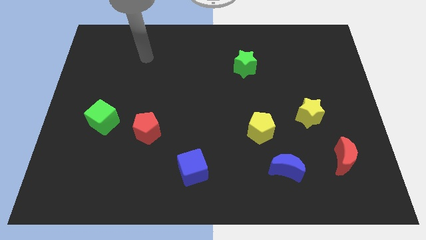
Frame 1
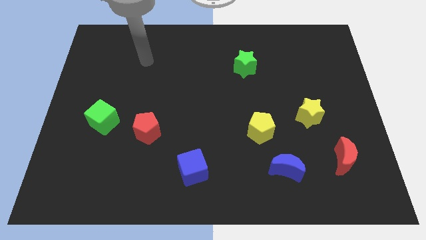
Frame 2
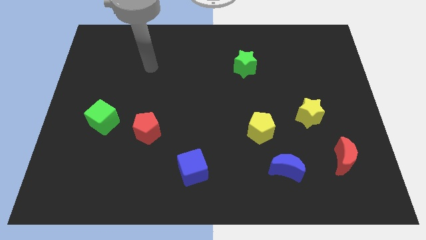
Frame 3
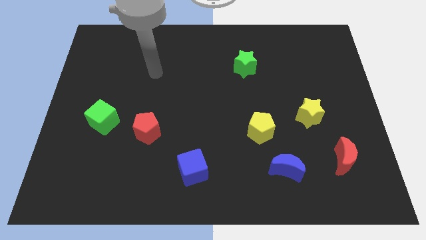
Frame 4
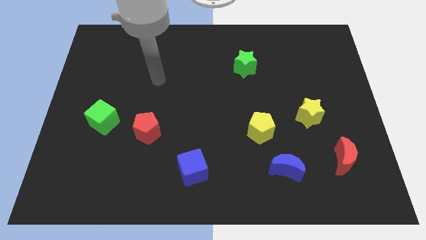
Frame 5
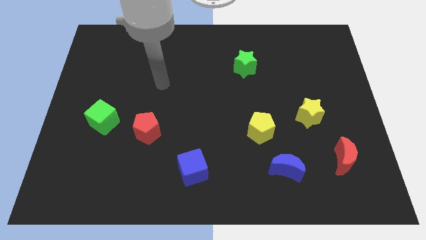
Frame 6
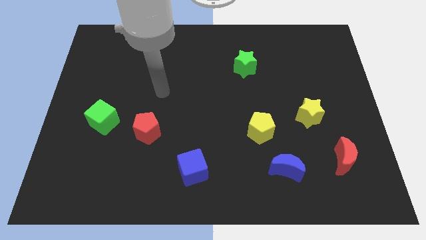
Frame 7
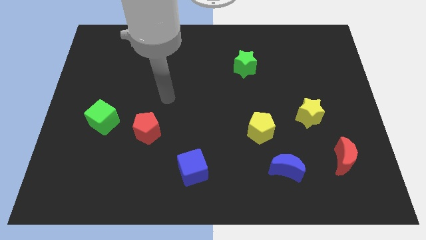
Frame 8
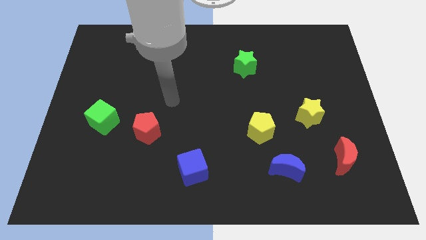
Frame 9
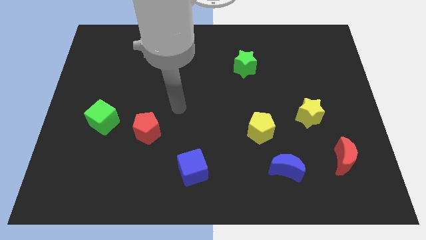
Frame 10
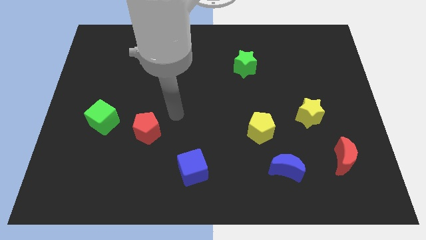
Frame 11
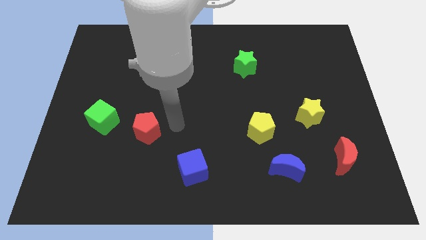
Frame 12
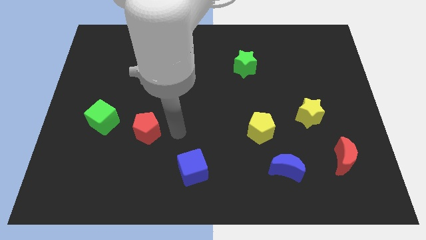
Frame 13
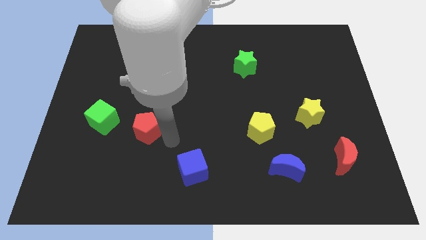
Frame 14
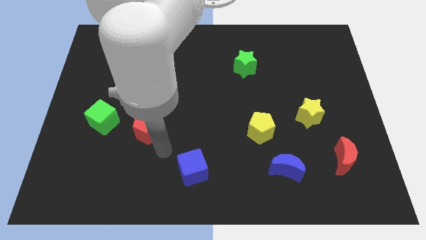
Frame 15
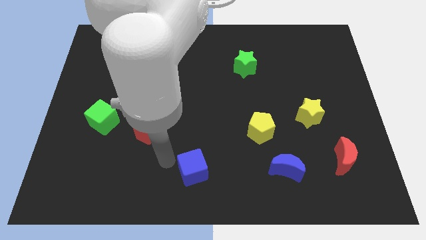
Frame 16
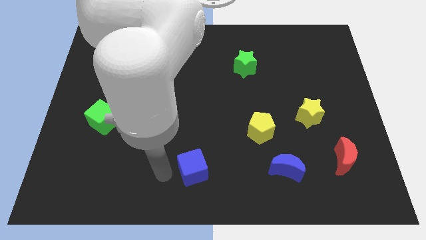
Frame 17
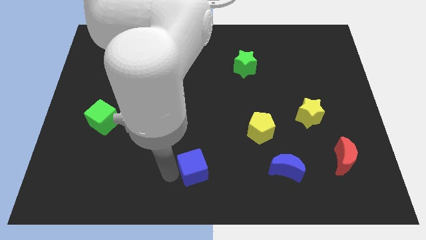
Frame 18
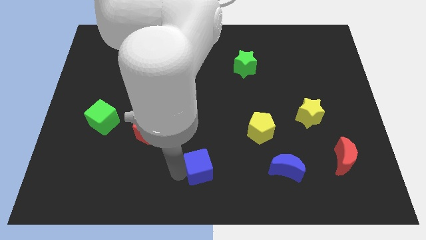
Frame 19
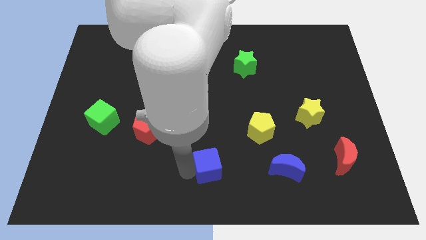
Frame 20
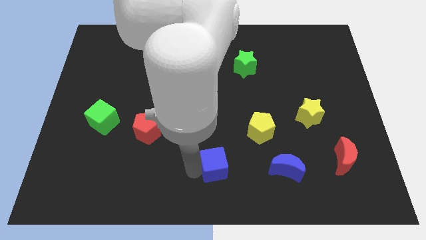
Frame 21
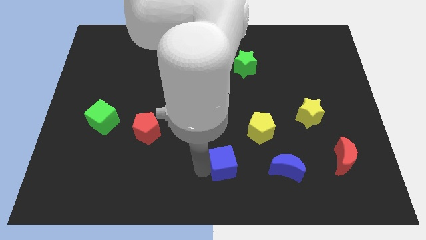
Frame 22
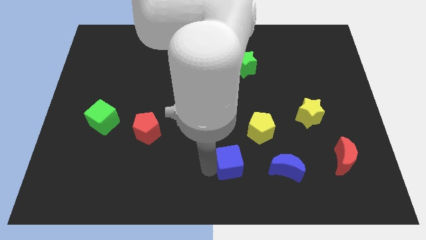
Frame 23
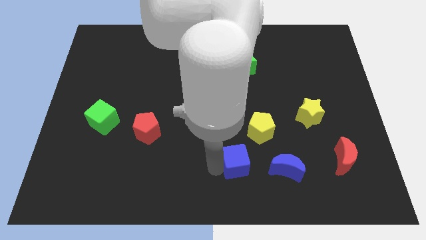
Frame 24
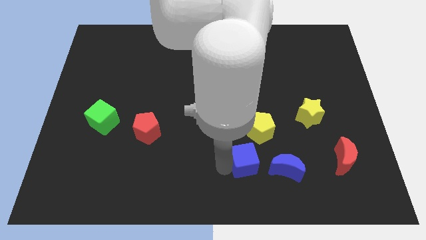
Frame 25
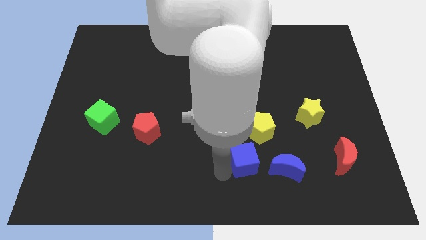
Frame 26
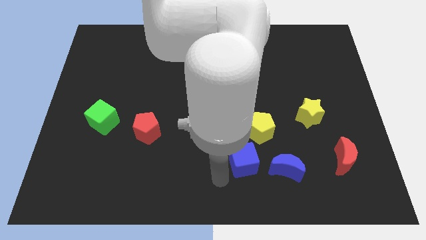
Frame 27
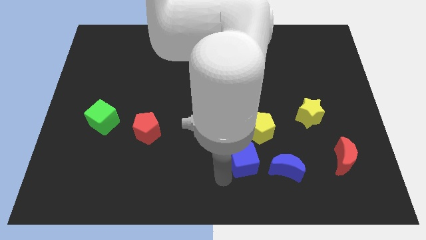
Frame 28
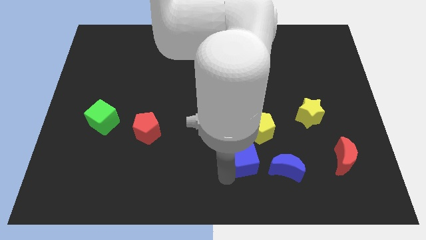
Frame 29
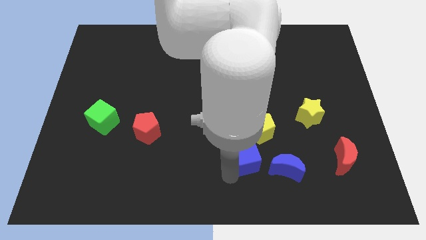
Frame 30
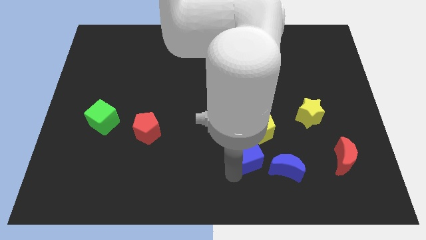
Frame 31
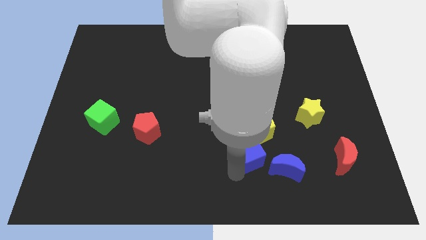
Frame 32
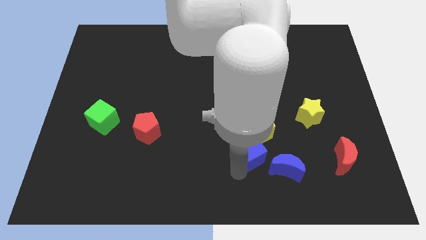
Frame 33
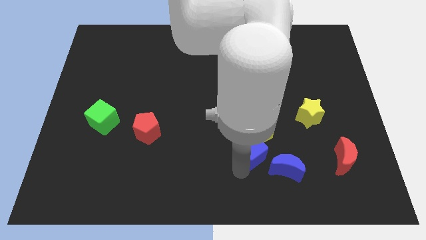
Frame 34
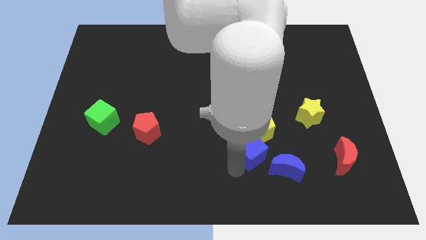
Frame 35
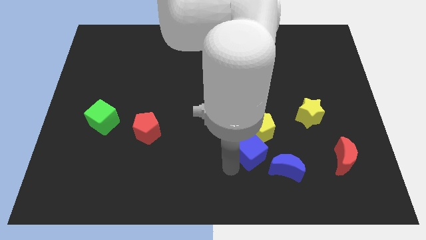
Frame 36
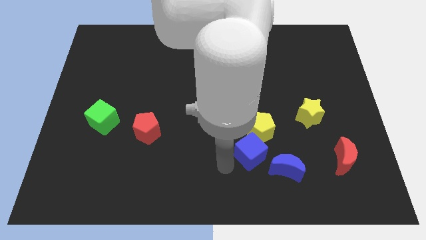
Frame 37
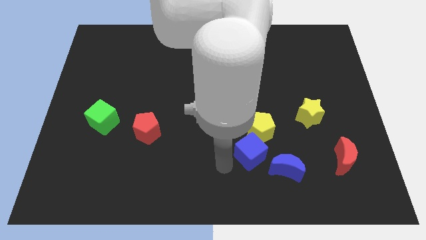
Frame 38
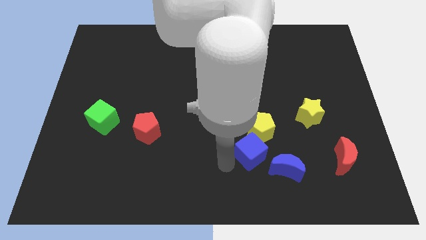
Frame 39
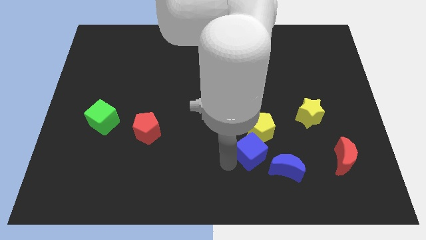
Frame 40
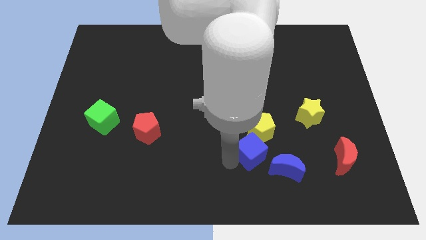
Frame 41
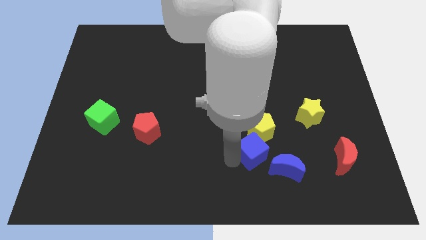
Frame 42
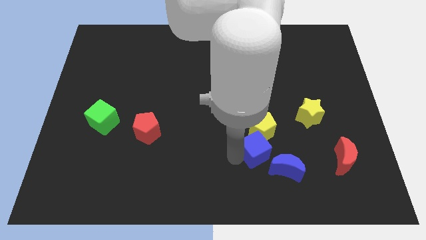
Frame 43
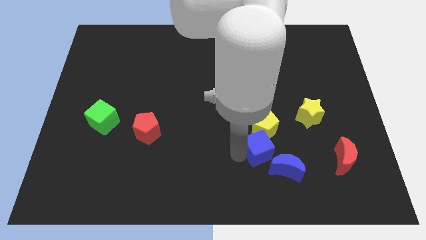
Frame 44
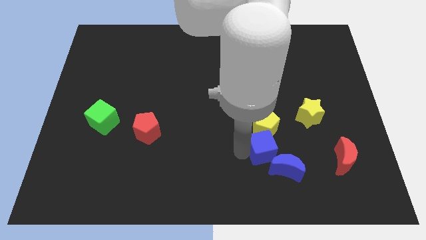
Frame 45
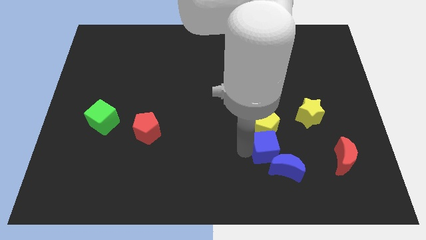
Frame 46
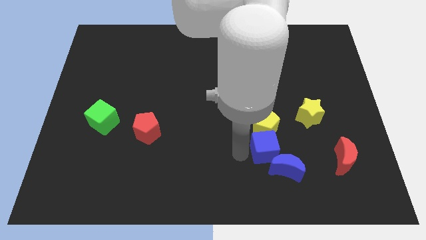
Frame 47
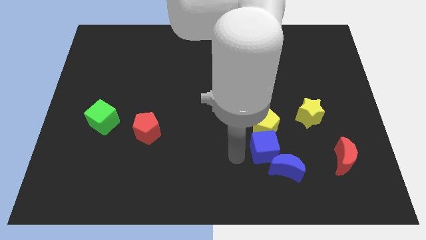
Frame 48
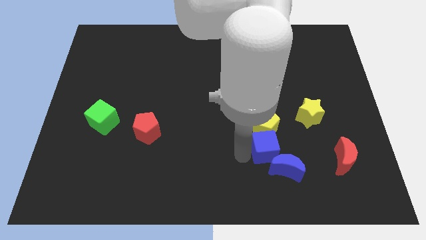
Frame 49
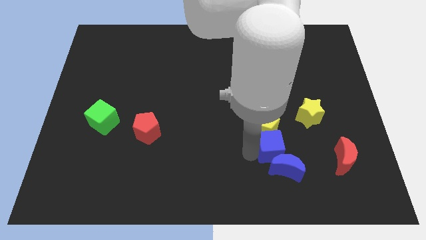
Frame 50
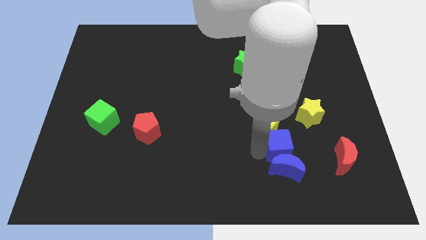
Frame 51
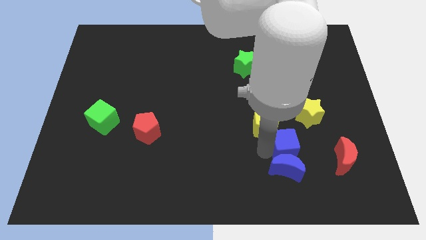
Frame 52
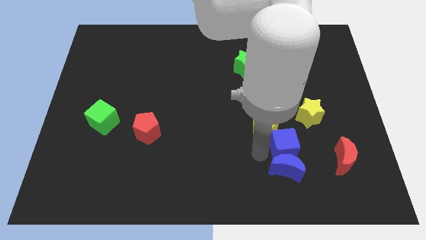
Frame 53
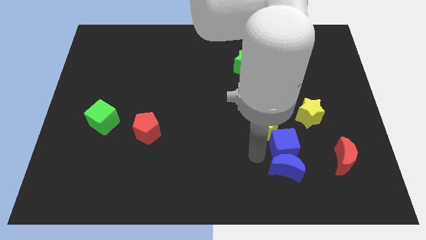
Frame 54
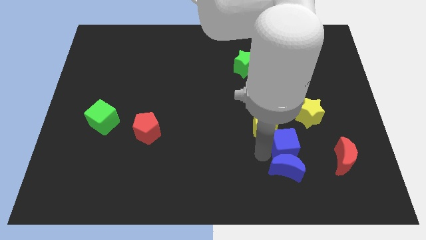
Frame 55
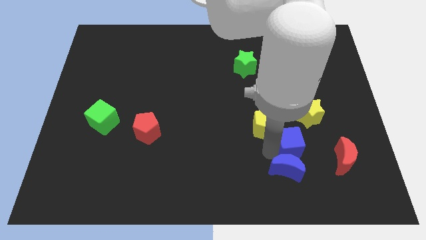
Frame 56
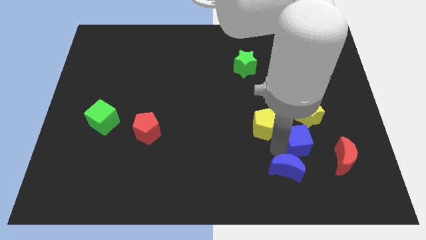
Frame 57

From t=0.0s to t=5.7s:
push the blue cube to the top left side of the red moon
